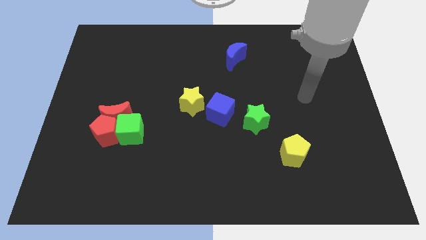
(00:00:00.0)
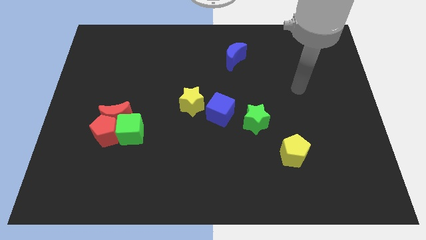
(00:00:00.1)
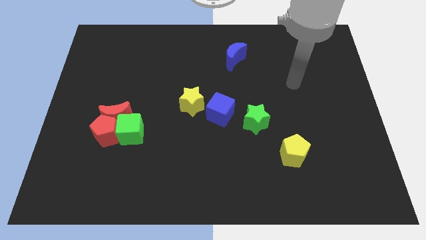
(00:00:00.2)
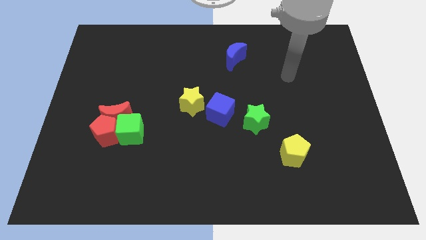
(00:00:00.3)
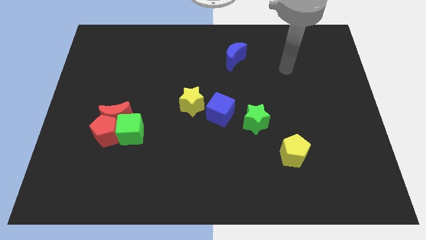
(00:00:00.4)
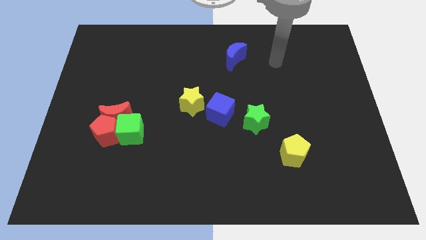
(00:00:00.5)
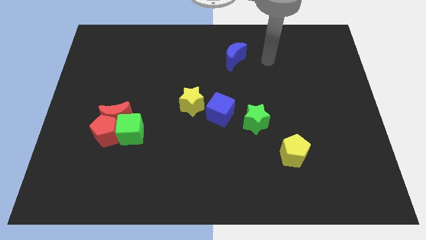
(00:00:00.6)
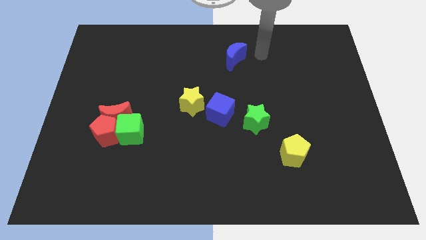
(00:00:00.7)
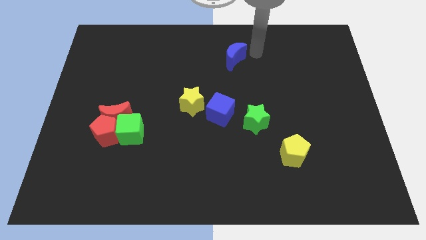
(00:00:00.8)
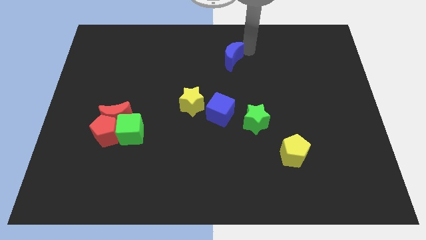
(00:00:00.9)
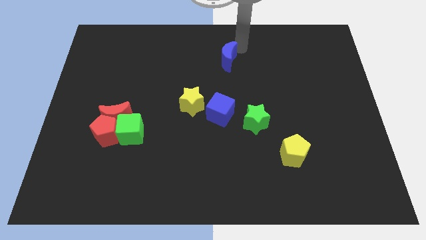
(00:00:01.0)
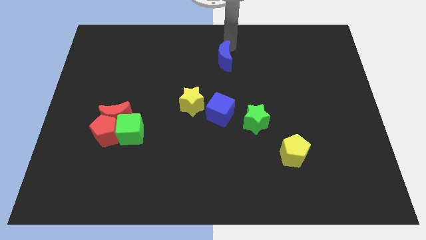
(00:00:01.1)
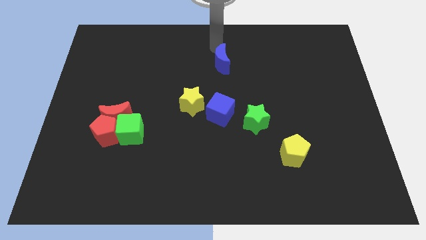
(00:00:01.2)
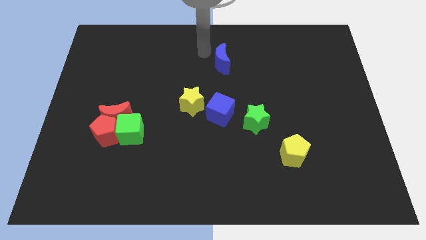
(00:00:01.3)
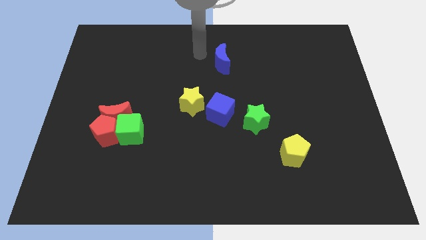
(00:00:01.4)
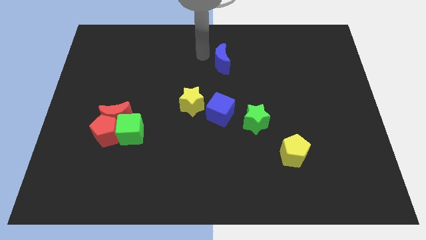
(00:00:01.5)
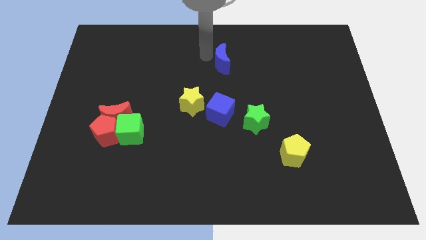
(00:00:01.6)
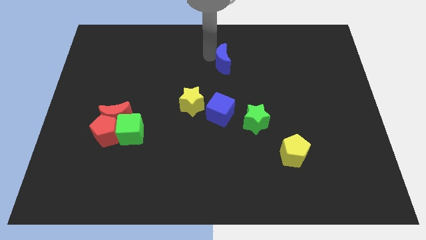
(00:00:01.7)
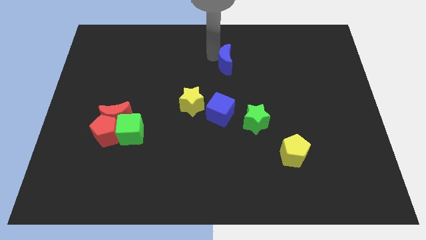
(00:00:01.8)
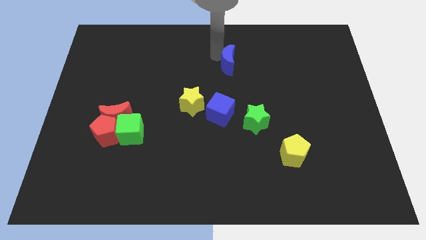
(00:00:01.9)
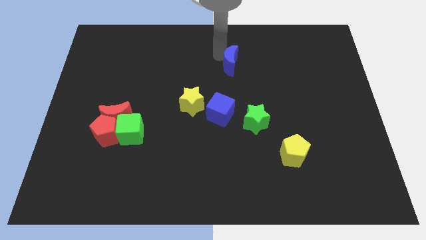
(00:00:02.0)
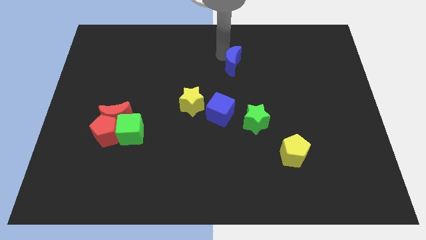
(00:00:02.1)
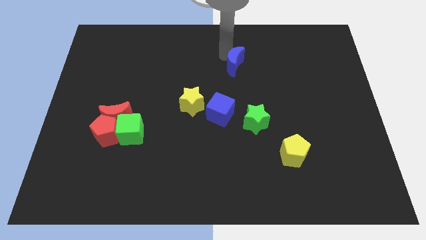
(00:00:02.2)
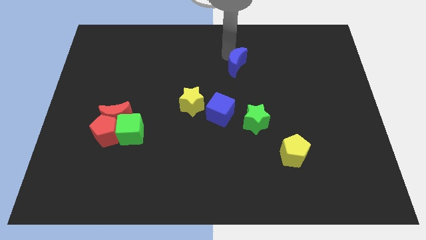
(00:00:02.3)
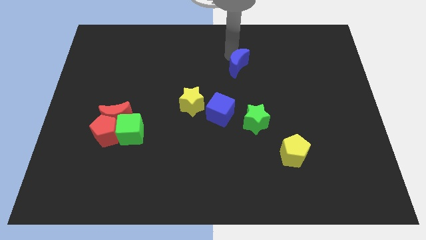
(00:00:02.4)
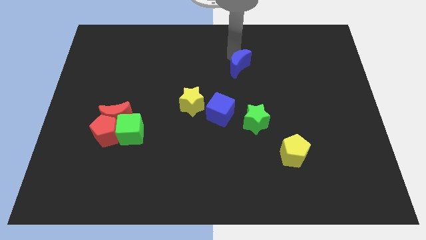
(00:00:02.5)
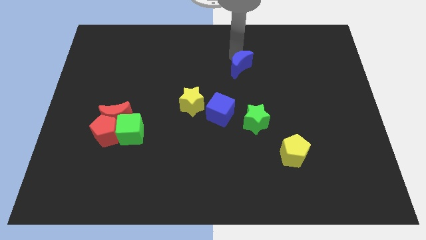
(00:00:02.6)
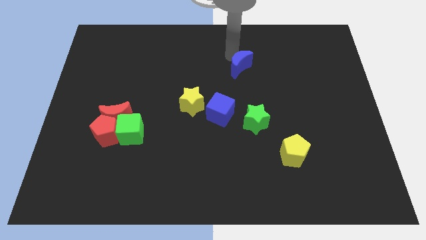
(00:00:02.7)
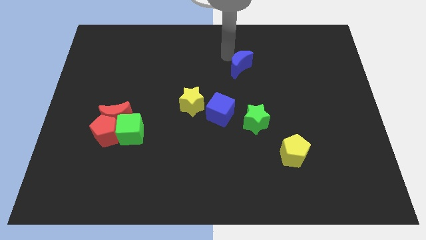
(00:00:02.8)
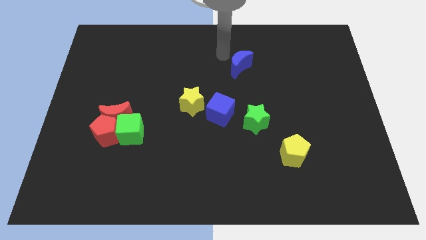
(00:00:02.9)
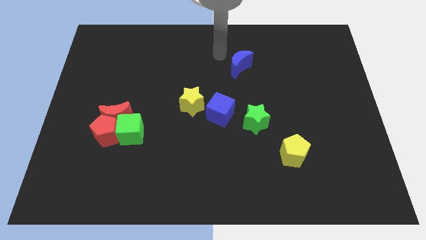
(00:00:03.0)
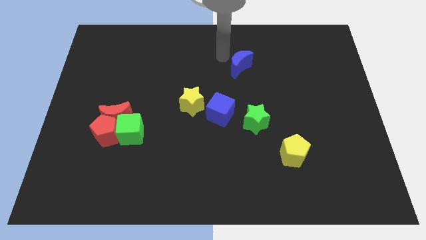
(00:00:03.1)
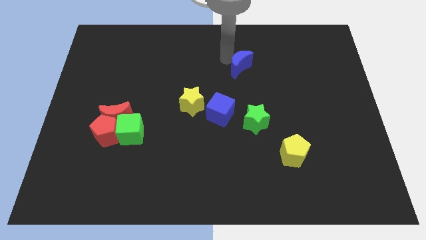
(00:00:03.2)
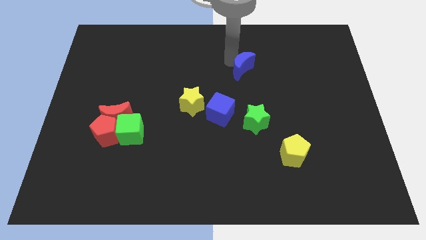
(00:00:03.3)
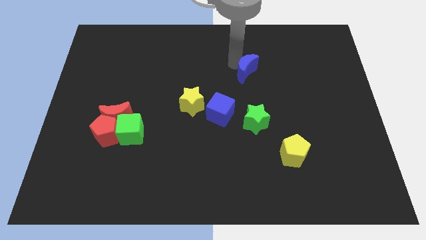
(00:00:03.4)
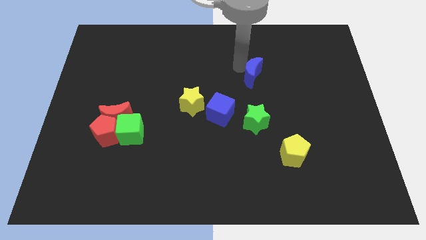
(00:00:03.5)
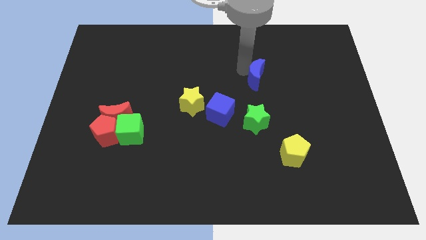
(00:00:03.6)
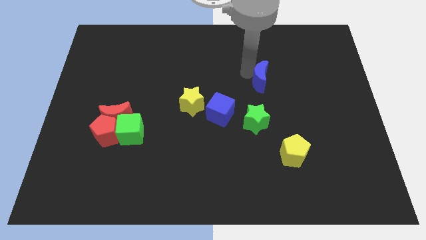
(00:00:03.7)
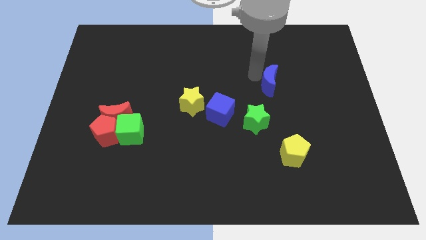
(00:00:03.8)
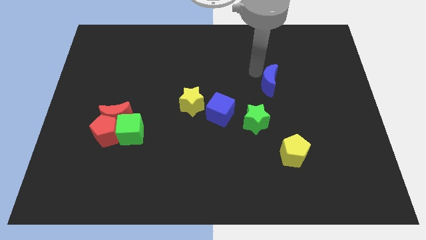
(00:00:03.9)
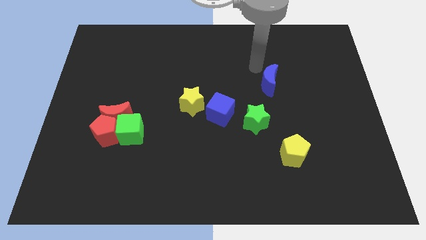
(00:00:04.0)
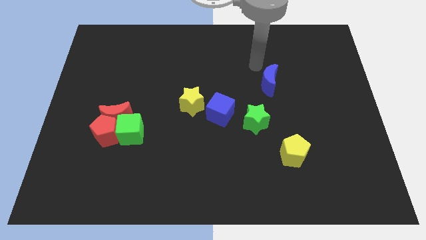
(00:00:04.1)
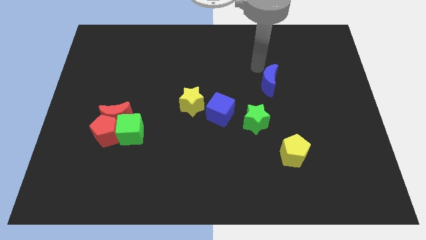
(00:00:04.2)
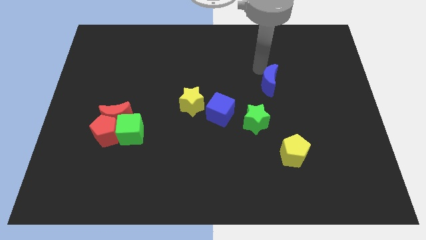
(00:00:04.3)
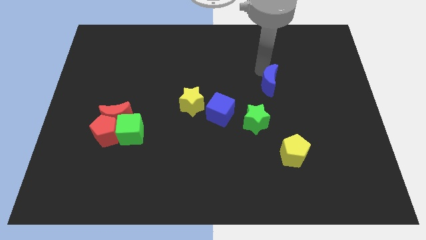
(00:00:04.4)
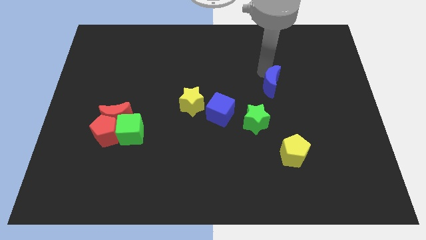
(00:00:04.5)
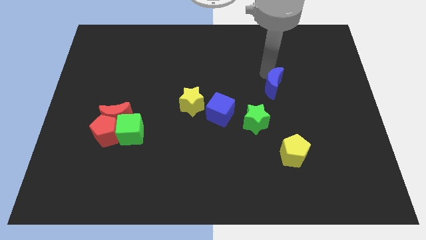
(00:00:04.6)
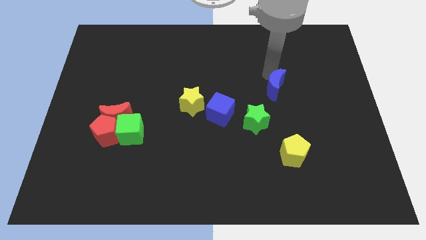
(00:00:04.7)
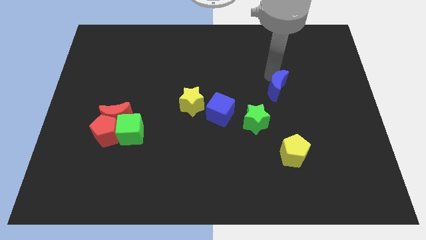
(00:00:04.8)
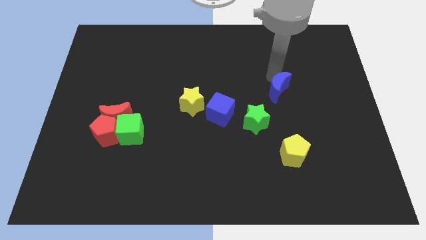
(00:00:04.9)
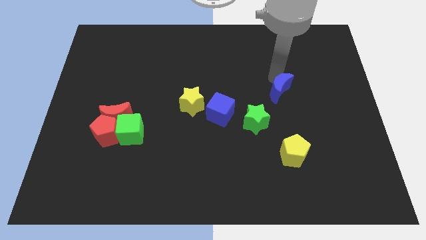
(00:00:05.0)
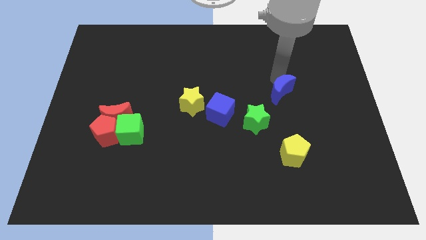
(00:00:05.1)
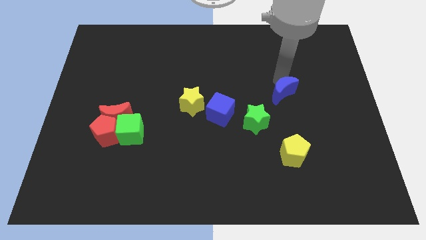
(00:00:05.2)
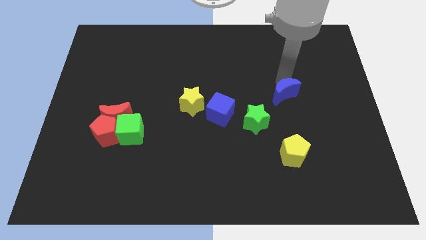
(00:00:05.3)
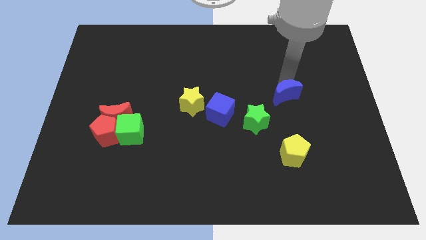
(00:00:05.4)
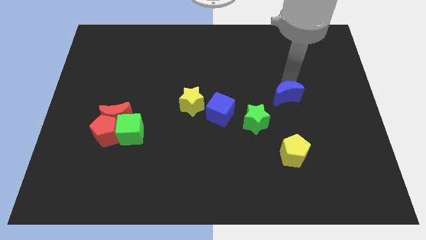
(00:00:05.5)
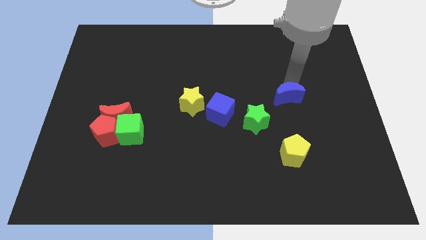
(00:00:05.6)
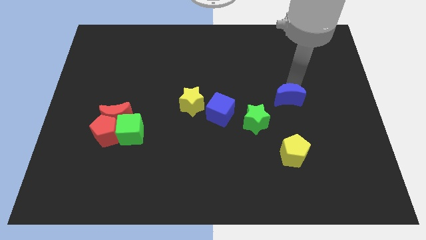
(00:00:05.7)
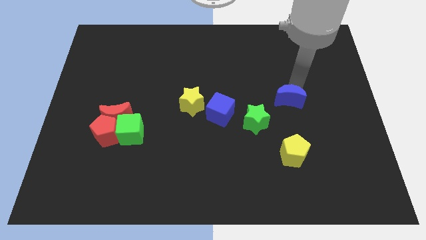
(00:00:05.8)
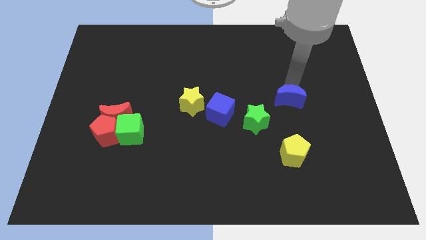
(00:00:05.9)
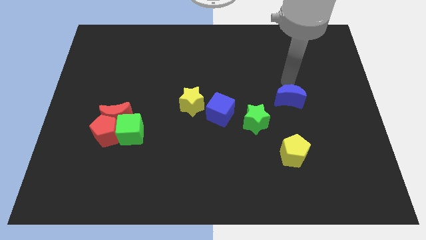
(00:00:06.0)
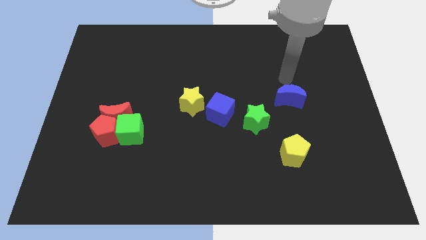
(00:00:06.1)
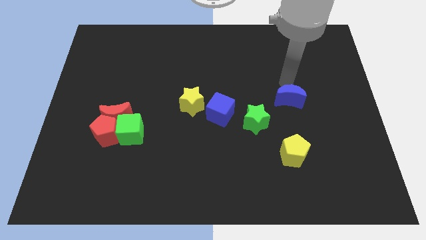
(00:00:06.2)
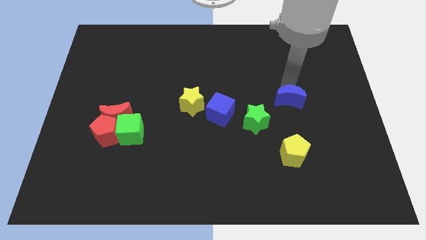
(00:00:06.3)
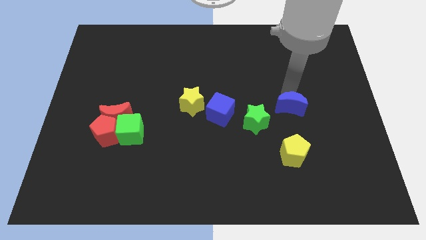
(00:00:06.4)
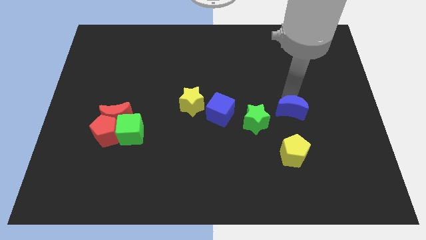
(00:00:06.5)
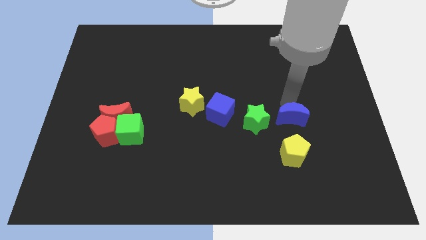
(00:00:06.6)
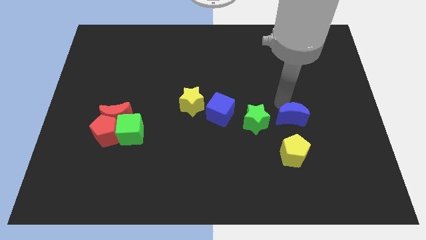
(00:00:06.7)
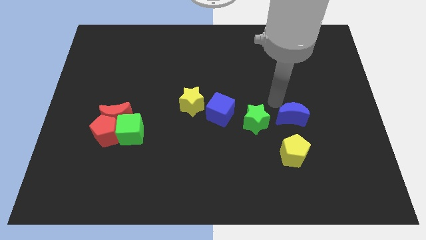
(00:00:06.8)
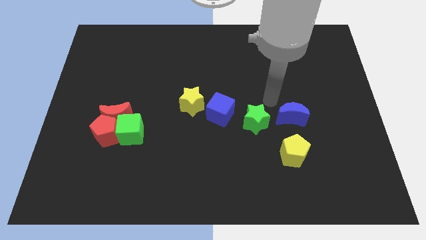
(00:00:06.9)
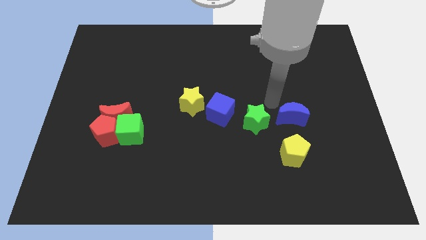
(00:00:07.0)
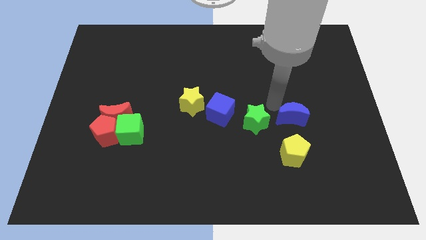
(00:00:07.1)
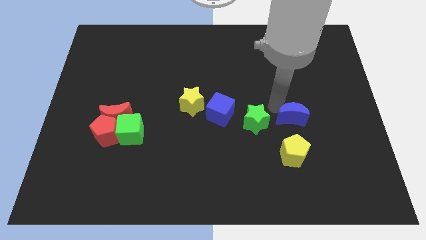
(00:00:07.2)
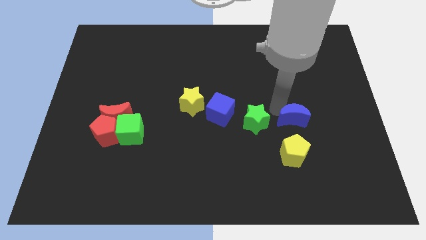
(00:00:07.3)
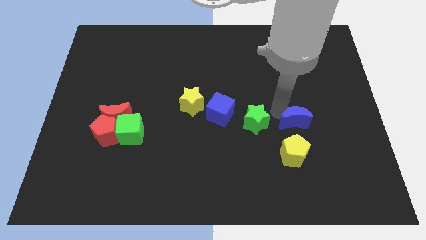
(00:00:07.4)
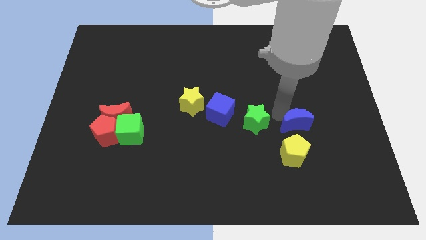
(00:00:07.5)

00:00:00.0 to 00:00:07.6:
push the blue moon to the top right side of the yellow pentagon

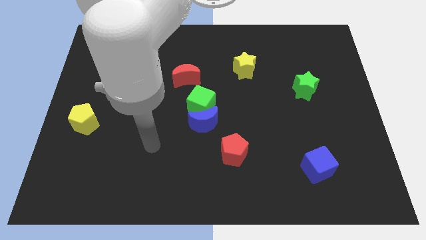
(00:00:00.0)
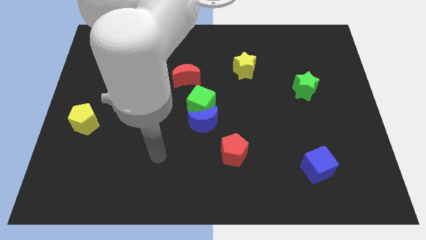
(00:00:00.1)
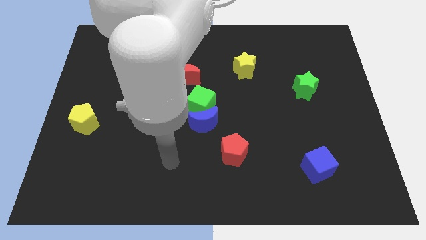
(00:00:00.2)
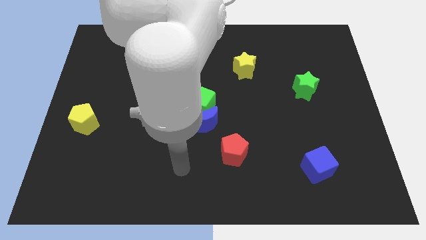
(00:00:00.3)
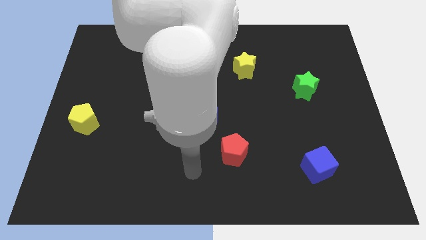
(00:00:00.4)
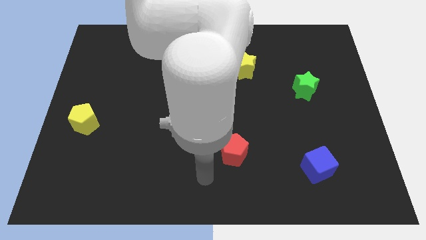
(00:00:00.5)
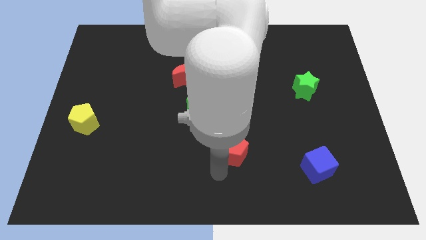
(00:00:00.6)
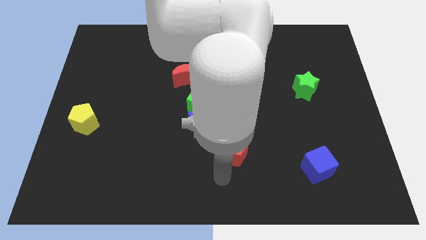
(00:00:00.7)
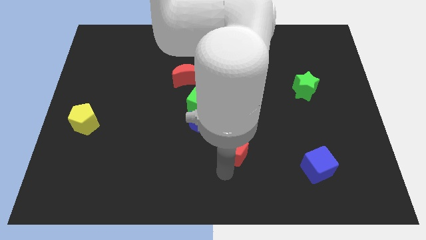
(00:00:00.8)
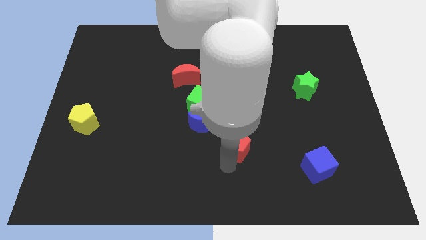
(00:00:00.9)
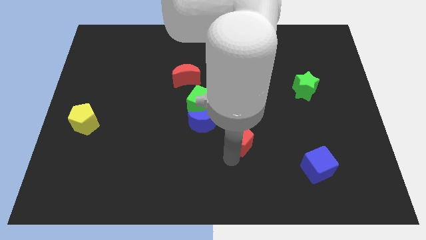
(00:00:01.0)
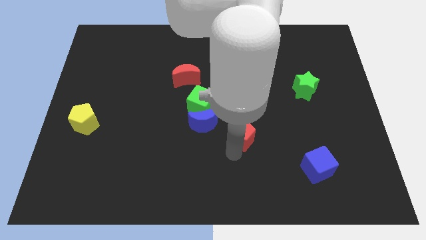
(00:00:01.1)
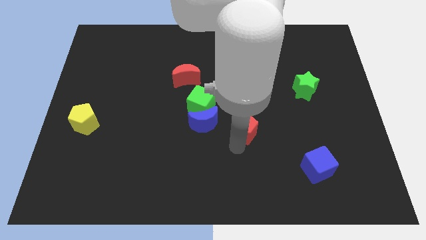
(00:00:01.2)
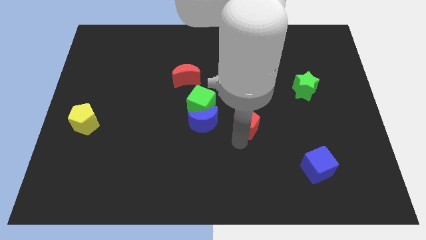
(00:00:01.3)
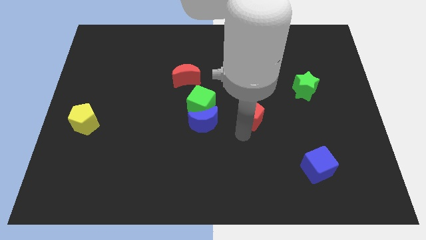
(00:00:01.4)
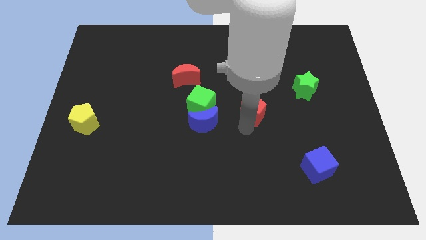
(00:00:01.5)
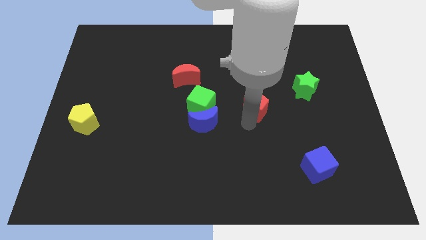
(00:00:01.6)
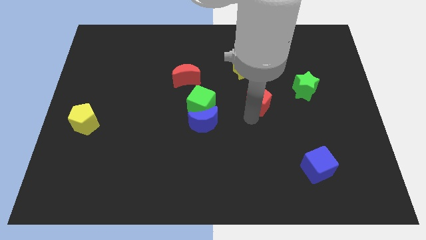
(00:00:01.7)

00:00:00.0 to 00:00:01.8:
put the red pentagon just left of the green star
